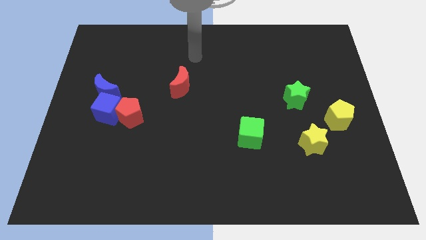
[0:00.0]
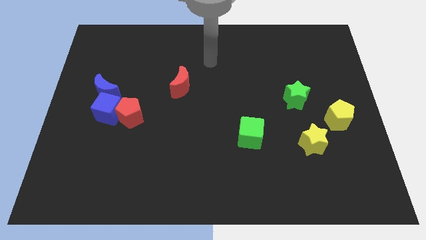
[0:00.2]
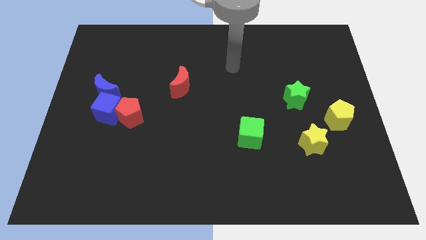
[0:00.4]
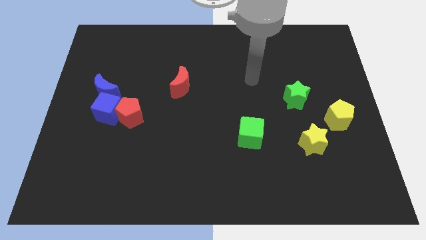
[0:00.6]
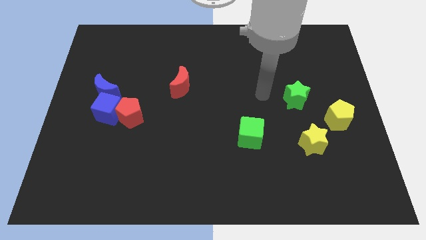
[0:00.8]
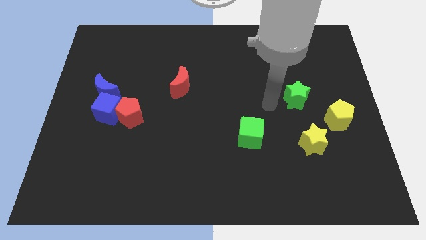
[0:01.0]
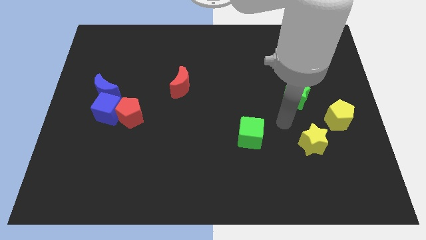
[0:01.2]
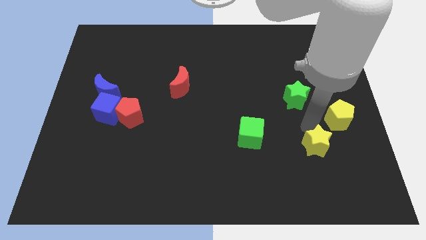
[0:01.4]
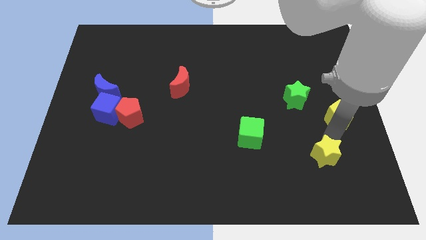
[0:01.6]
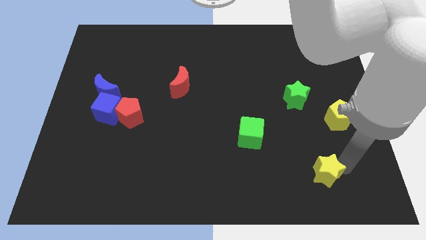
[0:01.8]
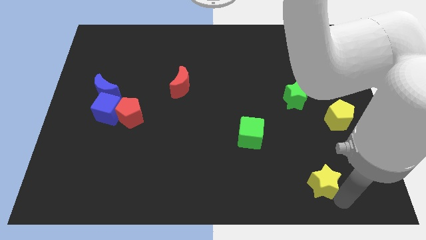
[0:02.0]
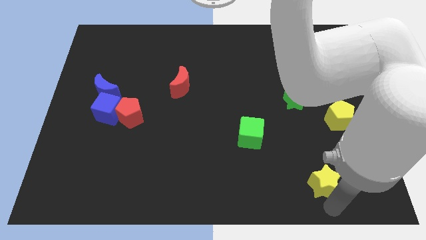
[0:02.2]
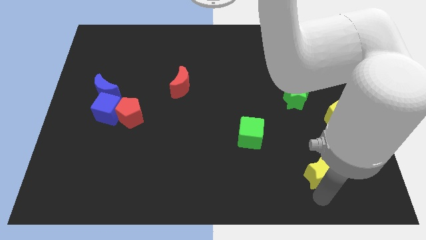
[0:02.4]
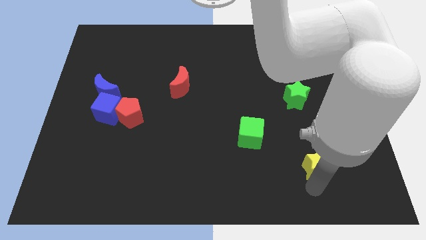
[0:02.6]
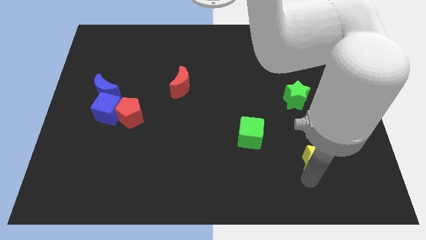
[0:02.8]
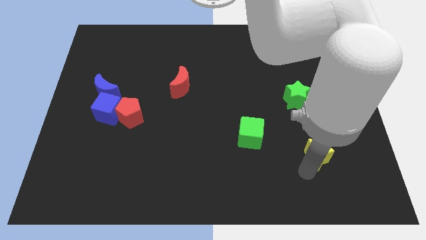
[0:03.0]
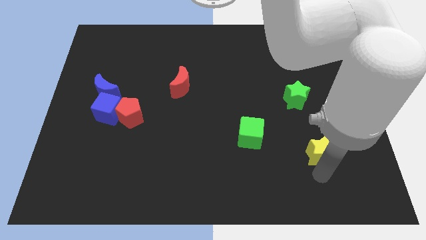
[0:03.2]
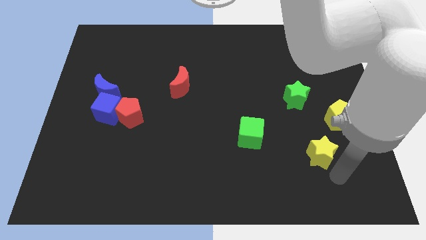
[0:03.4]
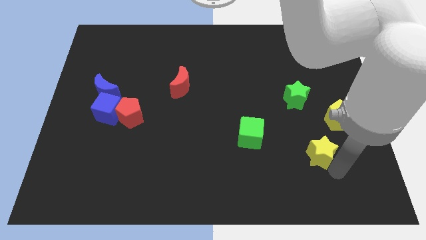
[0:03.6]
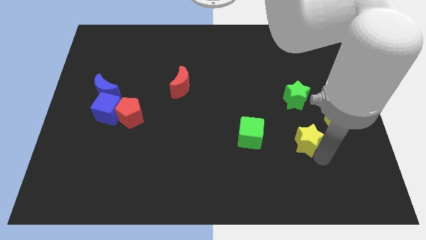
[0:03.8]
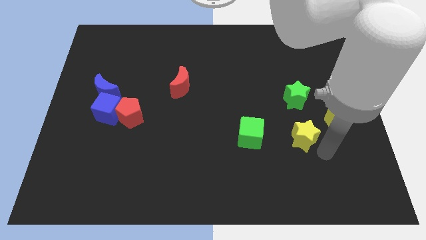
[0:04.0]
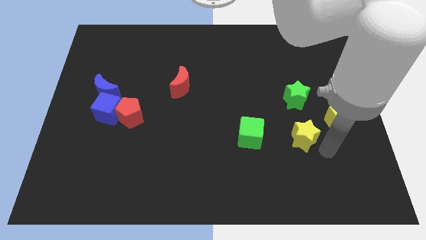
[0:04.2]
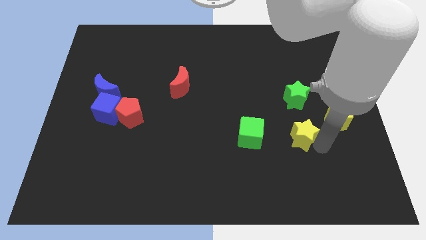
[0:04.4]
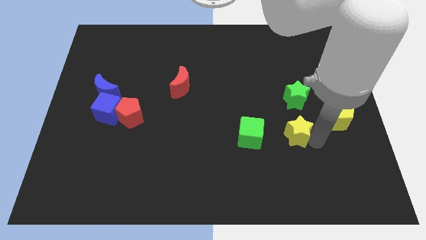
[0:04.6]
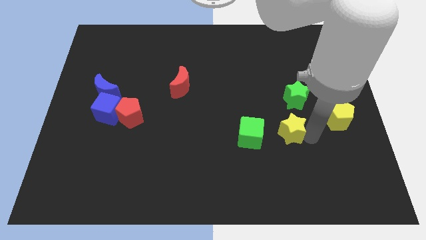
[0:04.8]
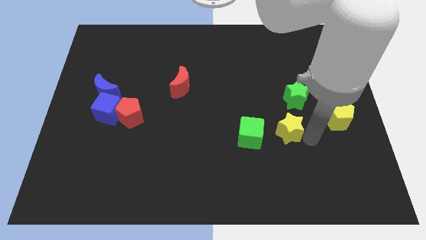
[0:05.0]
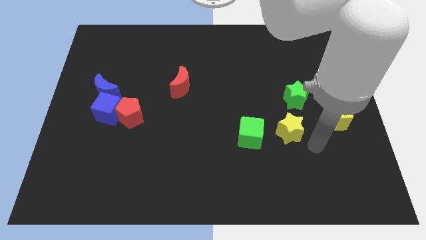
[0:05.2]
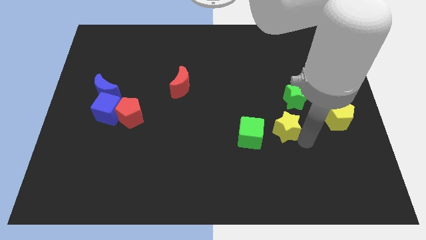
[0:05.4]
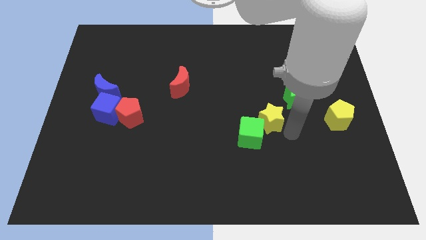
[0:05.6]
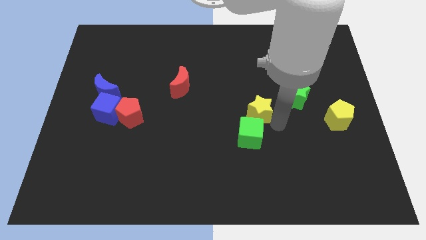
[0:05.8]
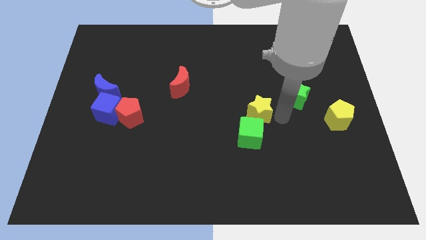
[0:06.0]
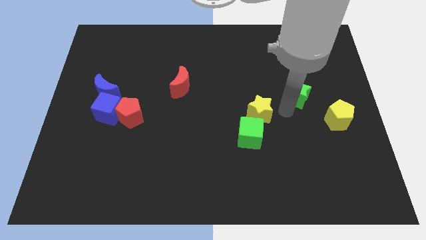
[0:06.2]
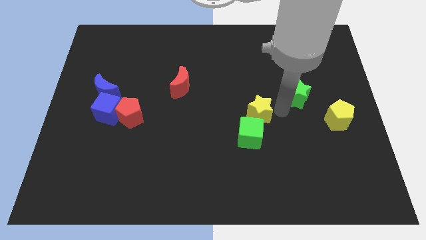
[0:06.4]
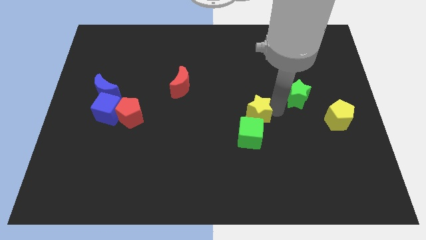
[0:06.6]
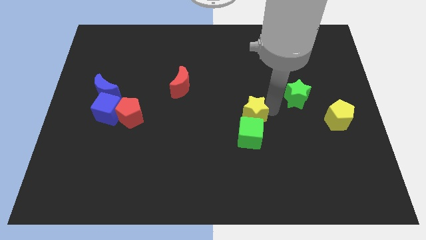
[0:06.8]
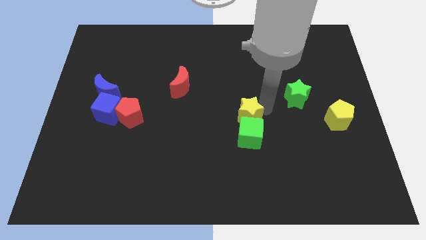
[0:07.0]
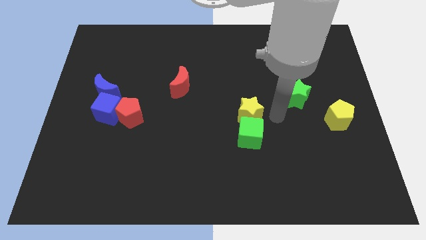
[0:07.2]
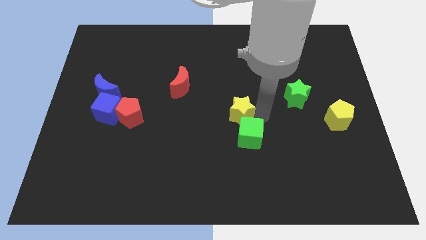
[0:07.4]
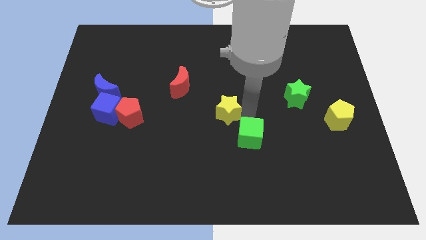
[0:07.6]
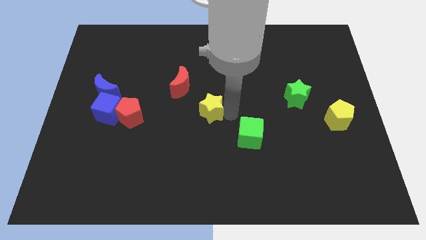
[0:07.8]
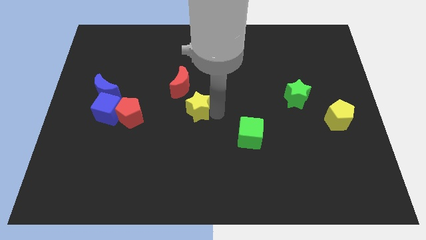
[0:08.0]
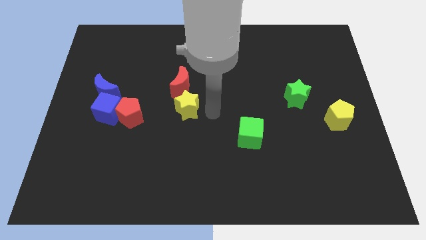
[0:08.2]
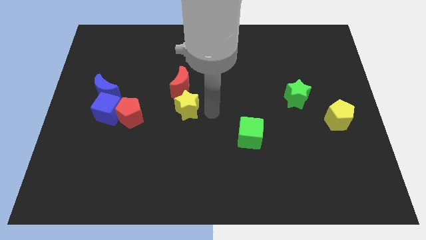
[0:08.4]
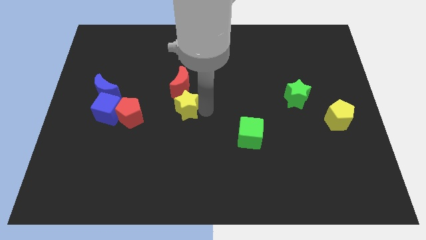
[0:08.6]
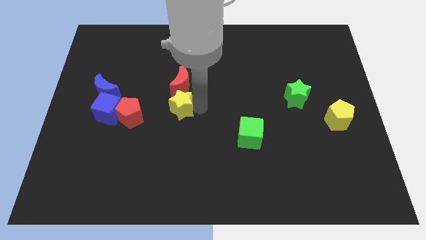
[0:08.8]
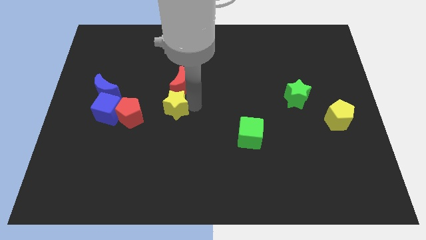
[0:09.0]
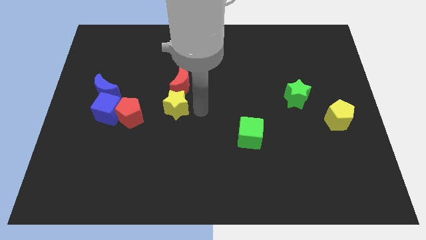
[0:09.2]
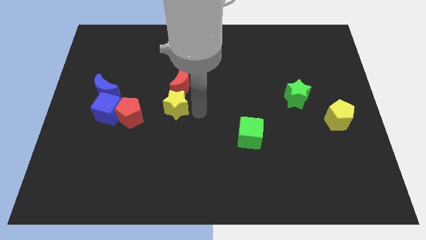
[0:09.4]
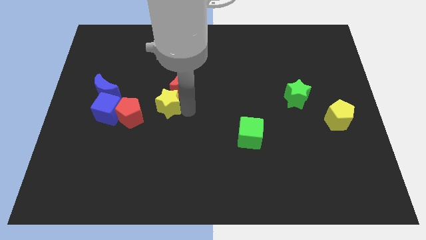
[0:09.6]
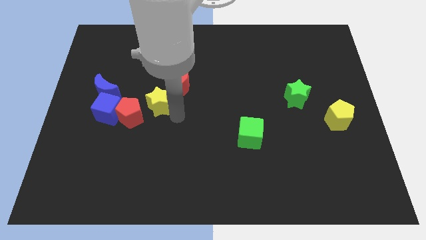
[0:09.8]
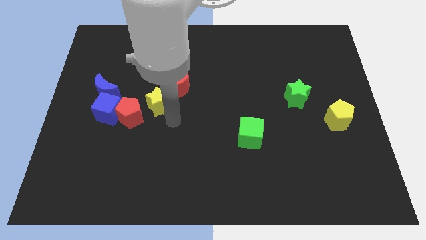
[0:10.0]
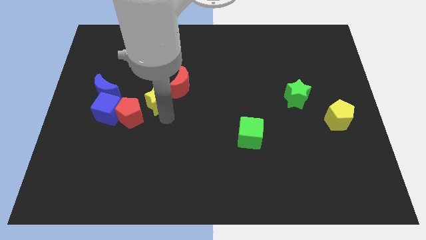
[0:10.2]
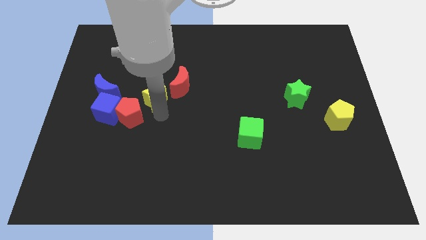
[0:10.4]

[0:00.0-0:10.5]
move the yellow star to the left side of the red moon

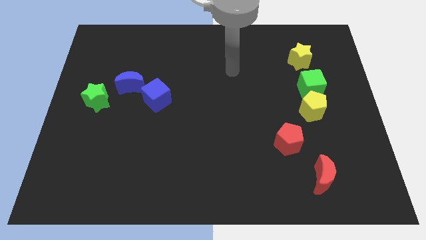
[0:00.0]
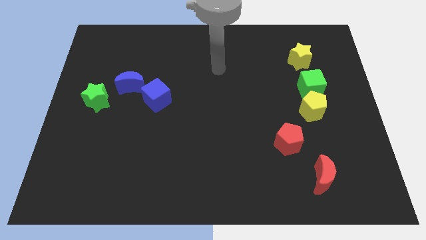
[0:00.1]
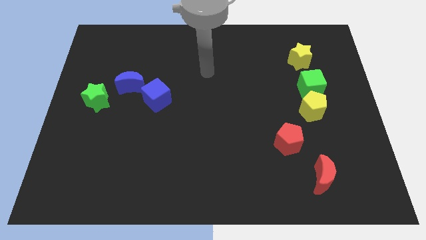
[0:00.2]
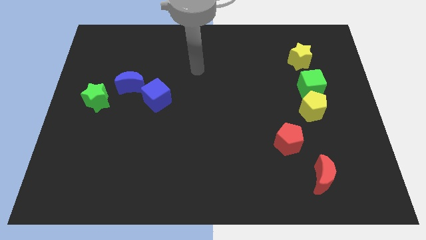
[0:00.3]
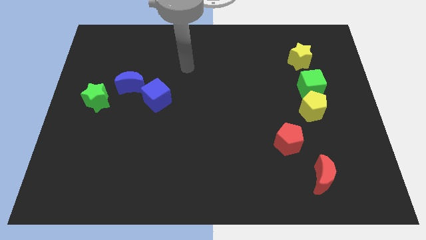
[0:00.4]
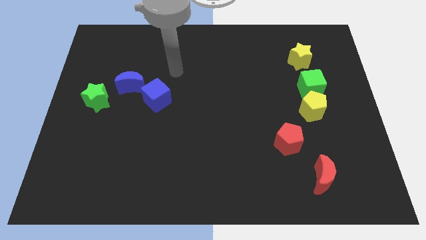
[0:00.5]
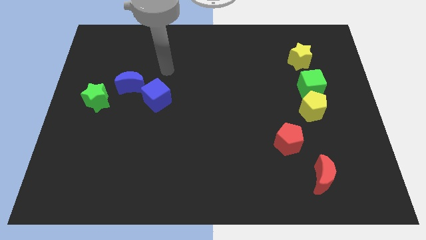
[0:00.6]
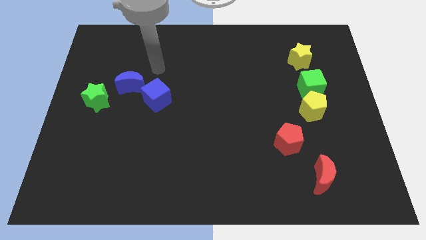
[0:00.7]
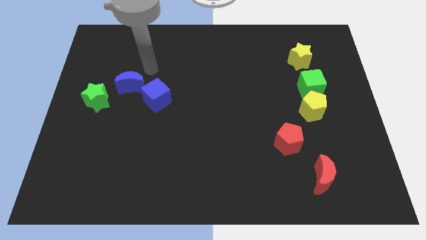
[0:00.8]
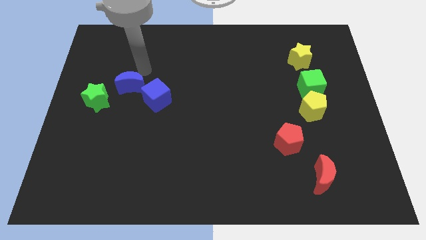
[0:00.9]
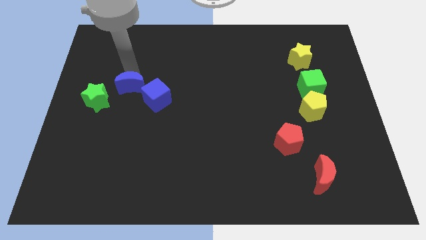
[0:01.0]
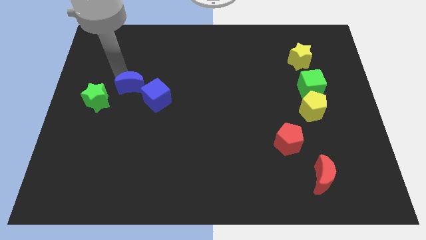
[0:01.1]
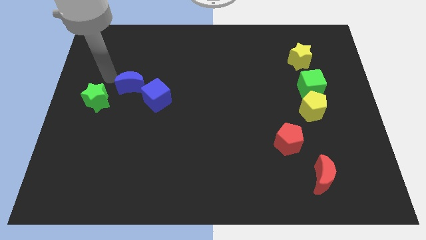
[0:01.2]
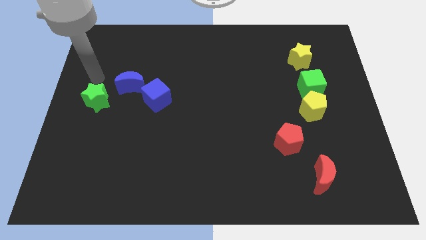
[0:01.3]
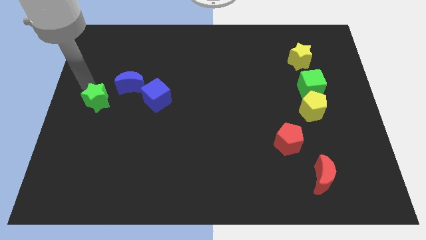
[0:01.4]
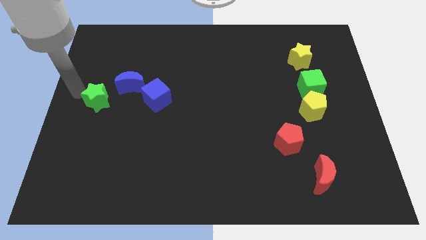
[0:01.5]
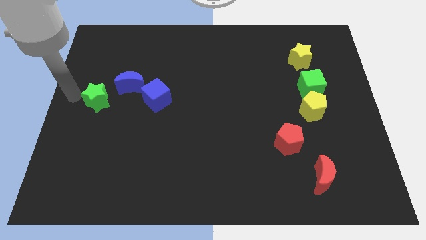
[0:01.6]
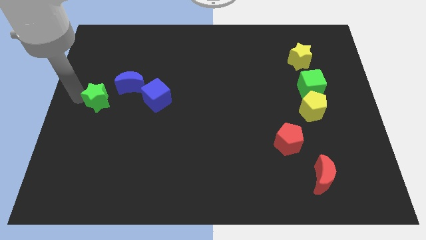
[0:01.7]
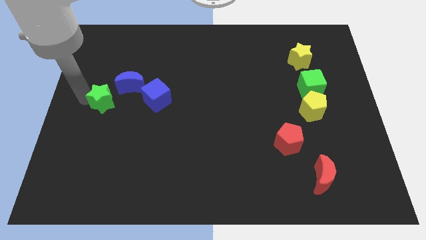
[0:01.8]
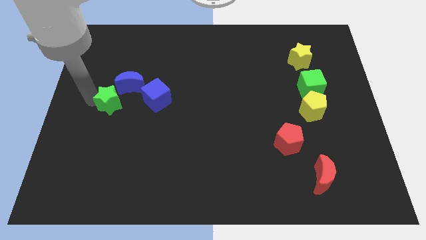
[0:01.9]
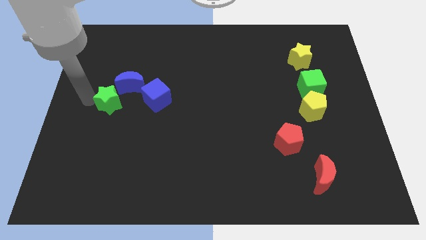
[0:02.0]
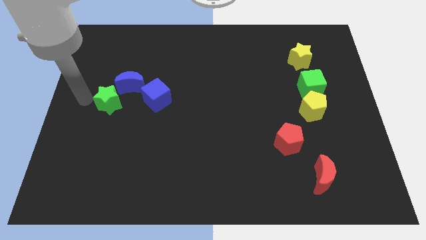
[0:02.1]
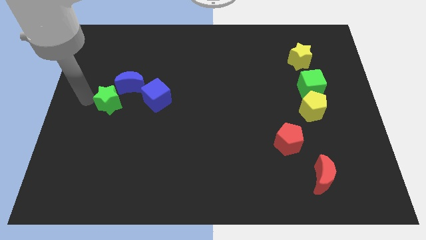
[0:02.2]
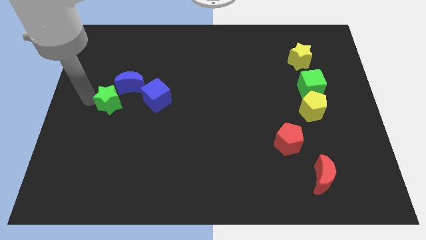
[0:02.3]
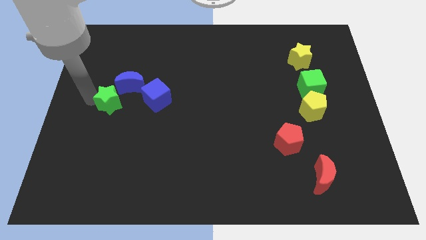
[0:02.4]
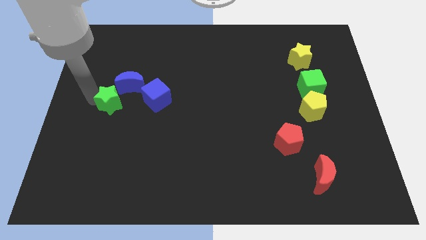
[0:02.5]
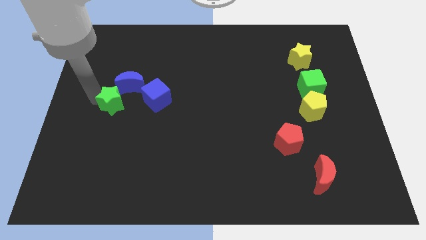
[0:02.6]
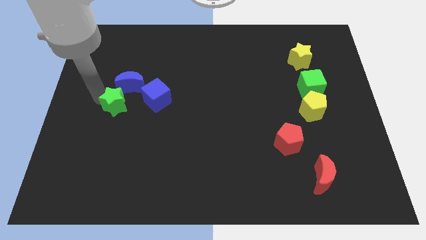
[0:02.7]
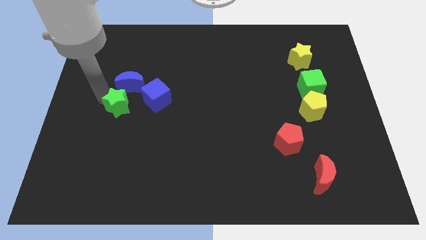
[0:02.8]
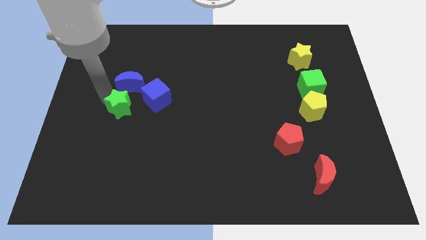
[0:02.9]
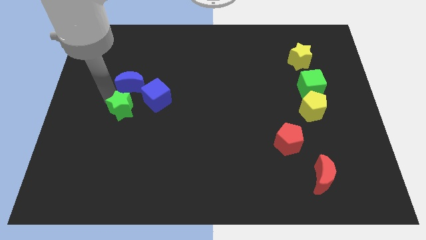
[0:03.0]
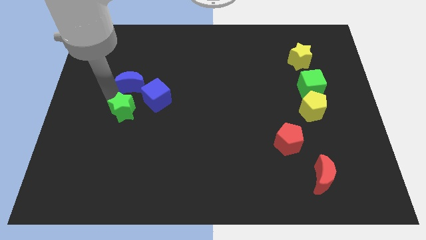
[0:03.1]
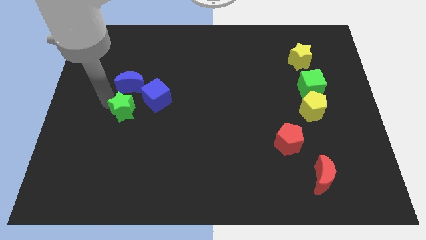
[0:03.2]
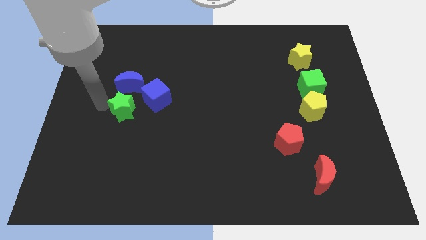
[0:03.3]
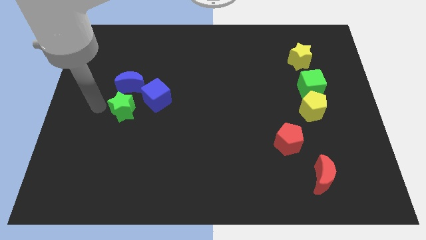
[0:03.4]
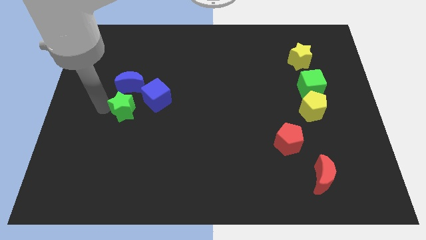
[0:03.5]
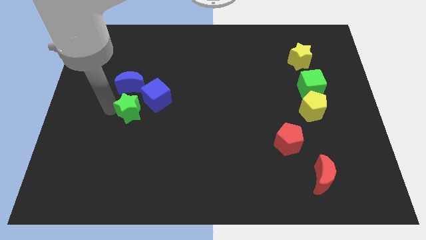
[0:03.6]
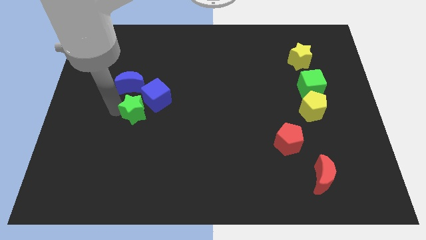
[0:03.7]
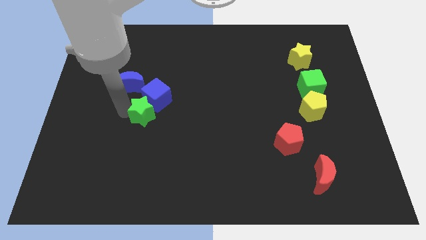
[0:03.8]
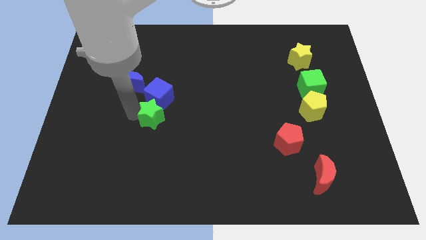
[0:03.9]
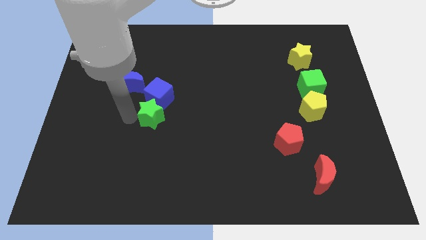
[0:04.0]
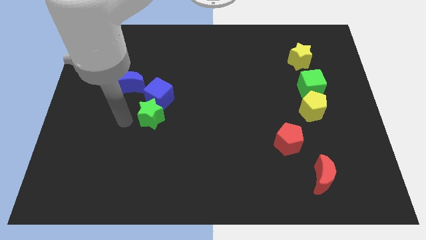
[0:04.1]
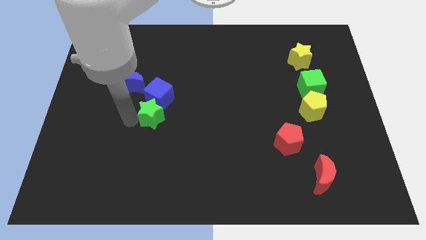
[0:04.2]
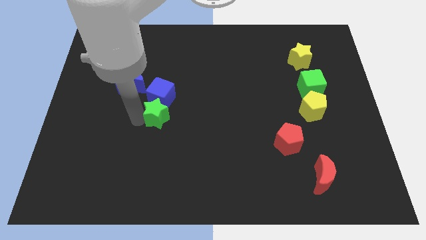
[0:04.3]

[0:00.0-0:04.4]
put the green star to the bottom right side of the blue cube
